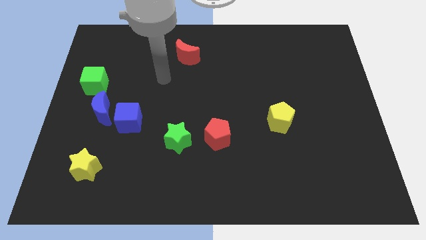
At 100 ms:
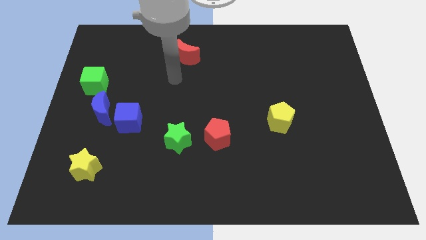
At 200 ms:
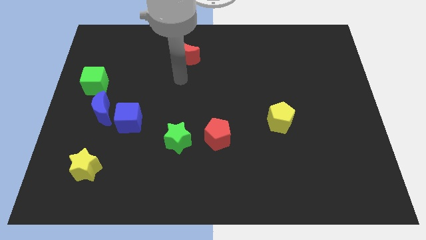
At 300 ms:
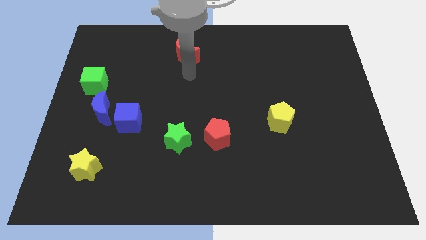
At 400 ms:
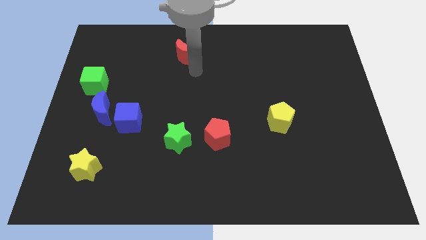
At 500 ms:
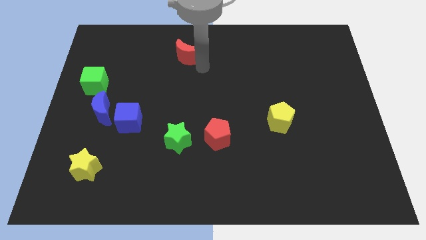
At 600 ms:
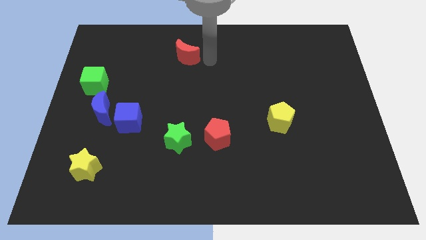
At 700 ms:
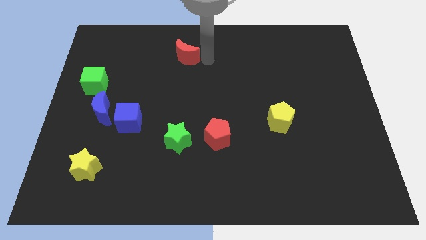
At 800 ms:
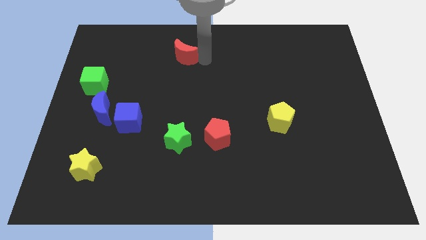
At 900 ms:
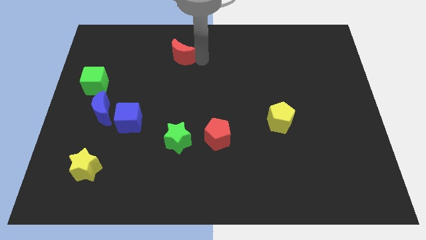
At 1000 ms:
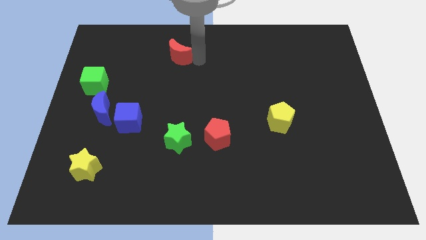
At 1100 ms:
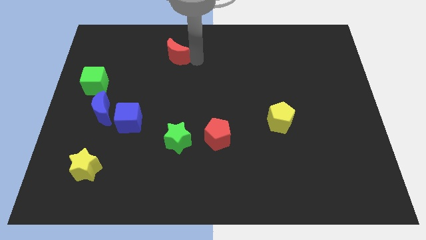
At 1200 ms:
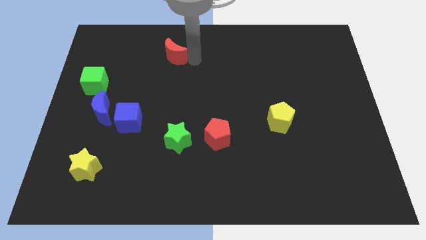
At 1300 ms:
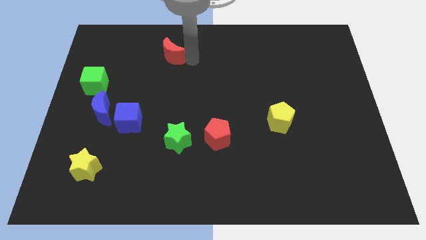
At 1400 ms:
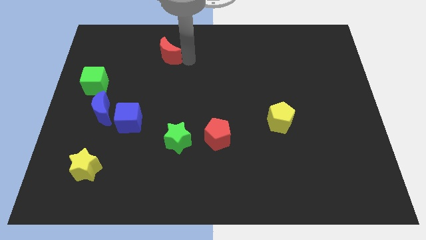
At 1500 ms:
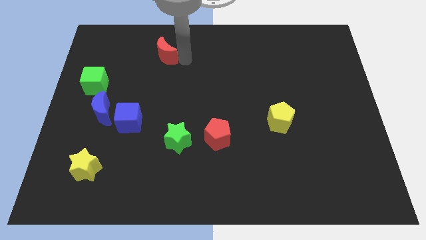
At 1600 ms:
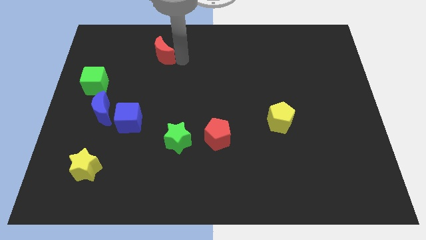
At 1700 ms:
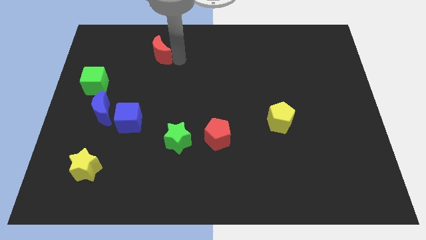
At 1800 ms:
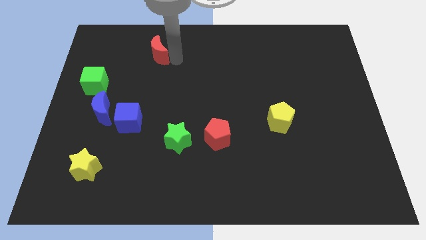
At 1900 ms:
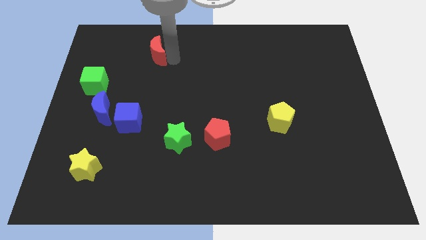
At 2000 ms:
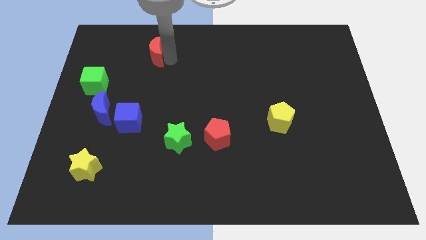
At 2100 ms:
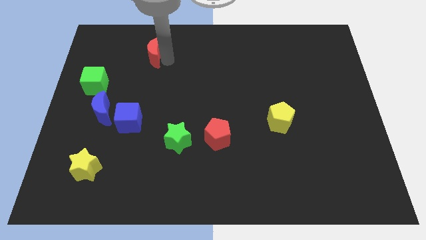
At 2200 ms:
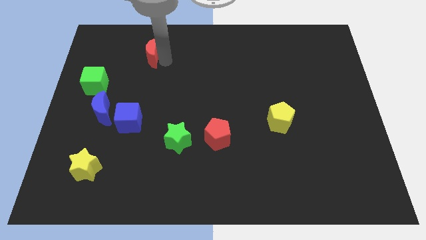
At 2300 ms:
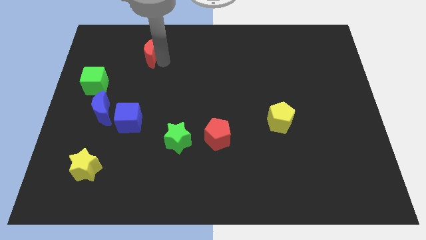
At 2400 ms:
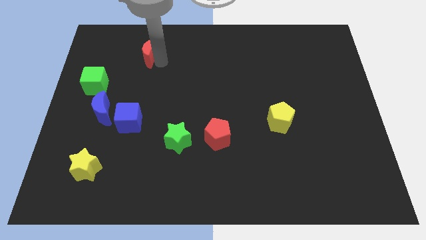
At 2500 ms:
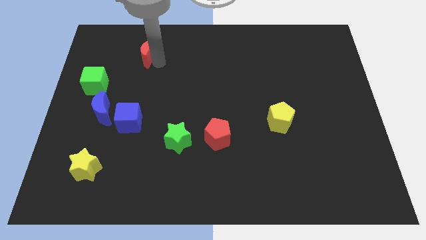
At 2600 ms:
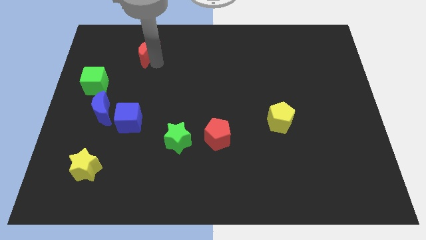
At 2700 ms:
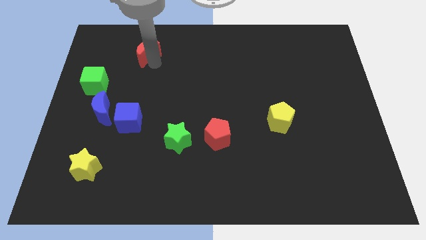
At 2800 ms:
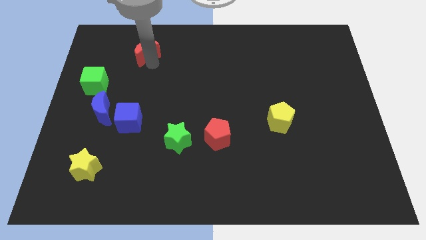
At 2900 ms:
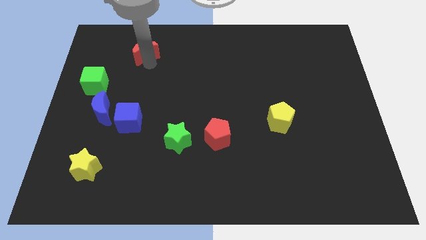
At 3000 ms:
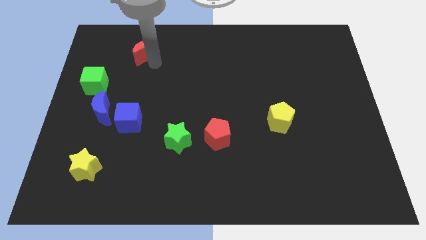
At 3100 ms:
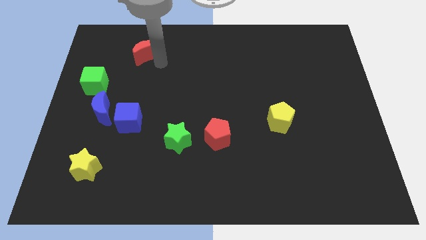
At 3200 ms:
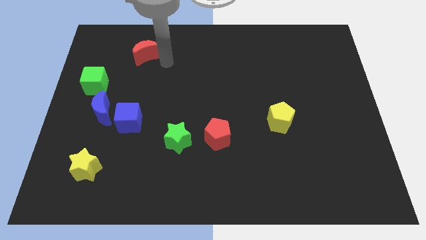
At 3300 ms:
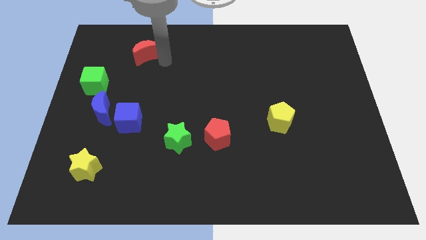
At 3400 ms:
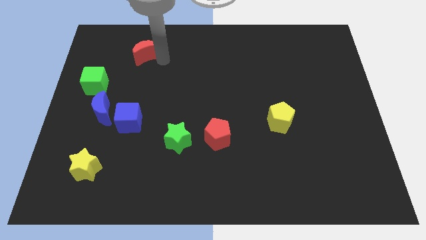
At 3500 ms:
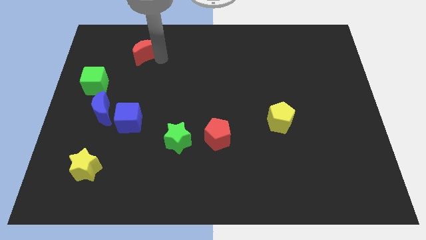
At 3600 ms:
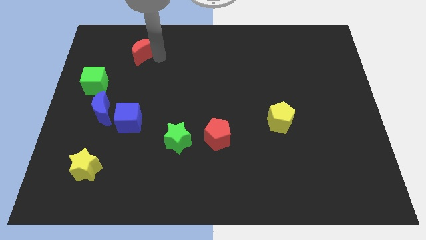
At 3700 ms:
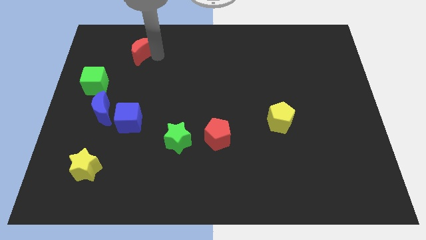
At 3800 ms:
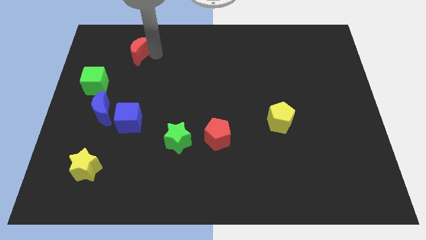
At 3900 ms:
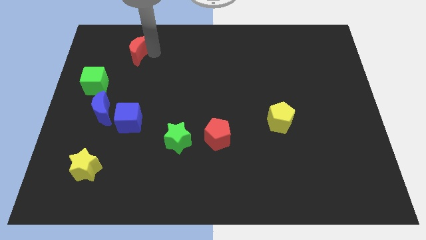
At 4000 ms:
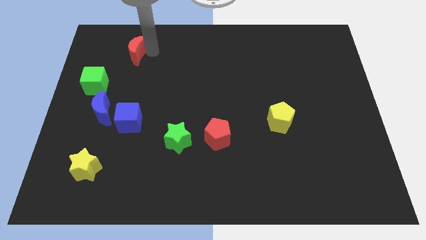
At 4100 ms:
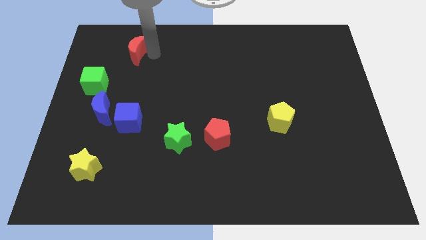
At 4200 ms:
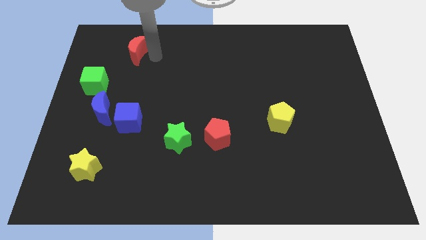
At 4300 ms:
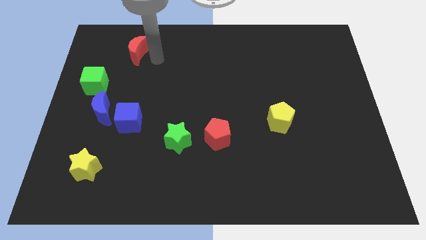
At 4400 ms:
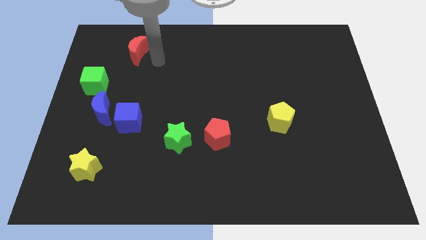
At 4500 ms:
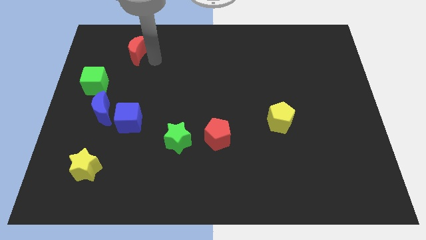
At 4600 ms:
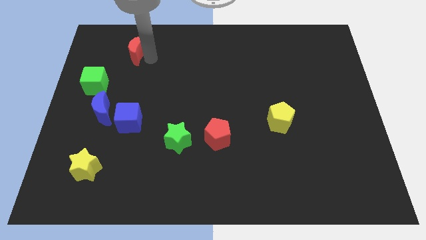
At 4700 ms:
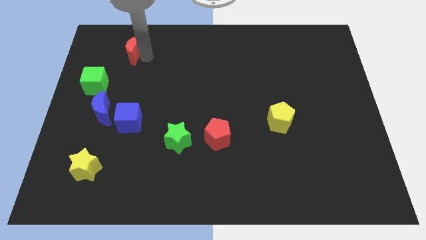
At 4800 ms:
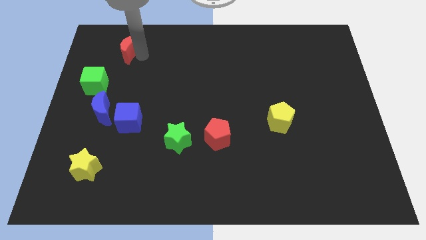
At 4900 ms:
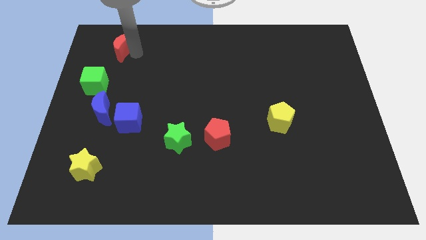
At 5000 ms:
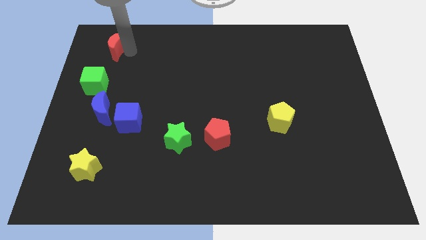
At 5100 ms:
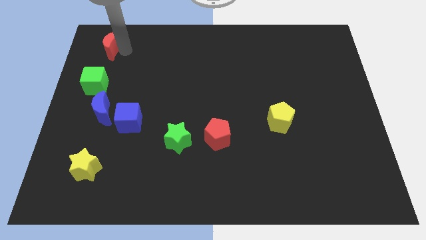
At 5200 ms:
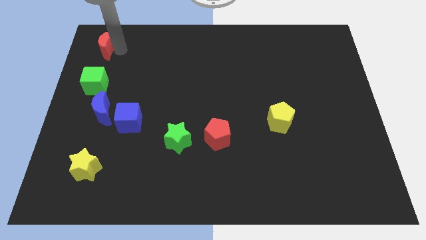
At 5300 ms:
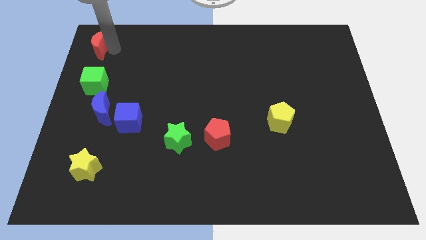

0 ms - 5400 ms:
slide the red moon to the top left corner

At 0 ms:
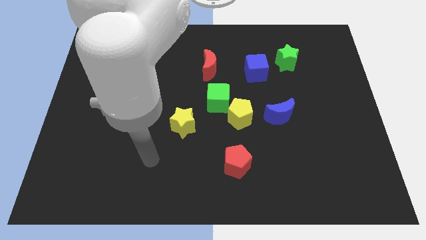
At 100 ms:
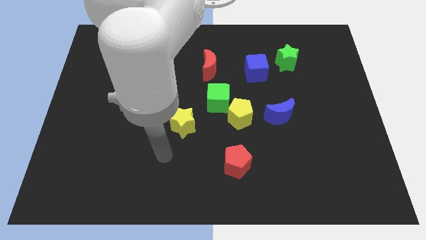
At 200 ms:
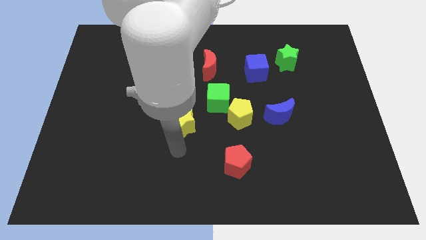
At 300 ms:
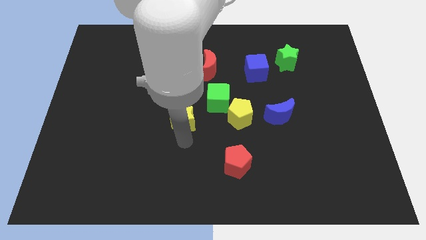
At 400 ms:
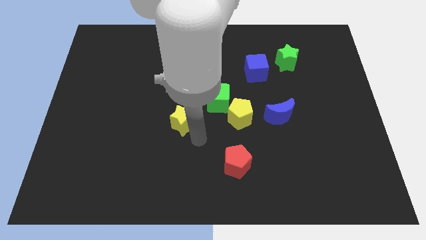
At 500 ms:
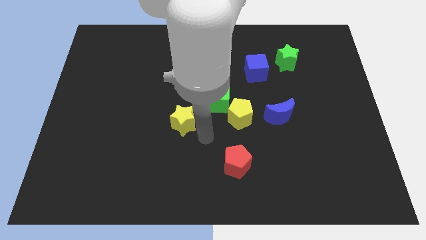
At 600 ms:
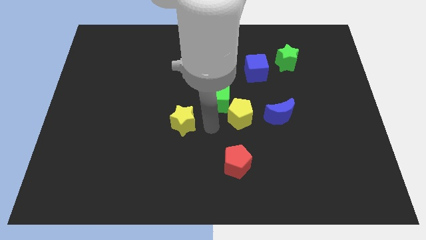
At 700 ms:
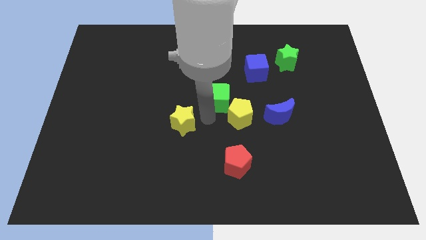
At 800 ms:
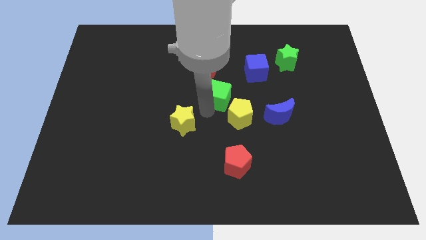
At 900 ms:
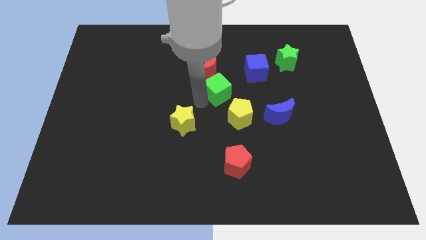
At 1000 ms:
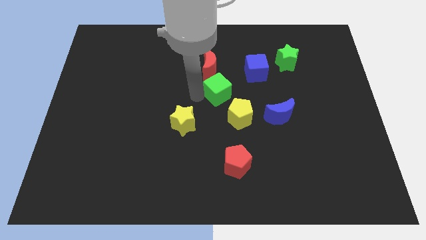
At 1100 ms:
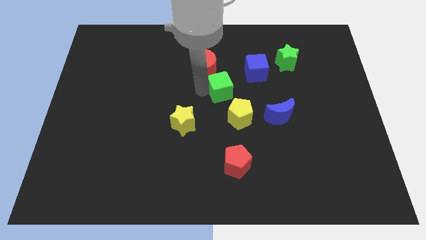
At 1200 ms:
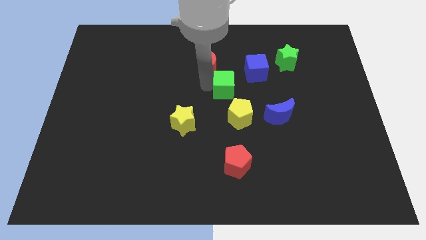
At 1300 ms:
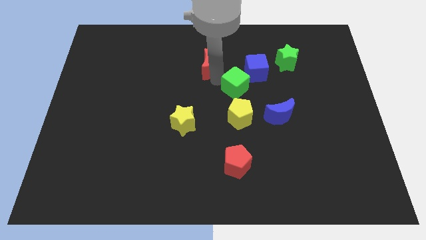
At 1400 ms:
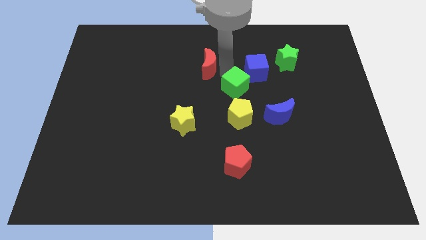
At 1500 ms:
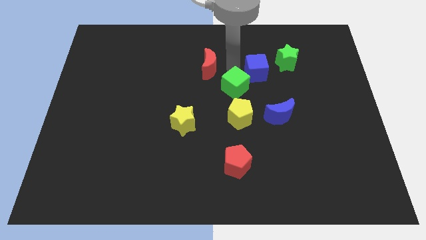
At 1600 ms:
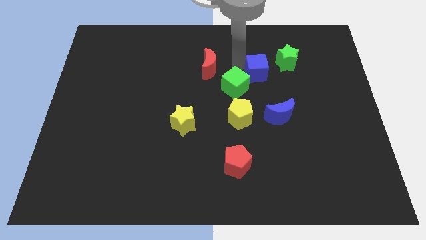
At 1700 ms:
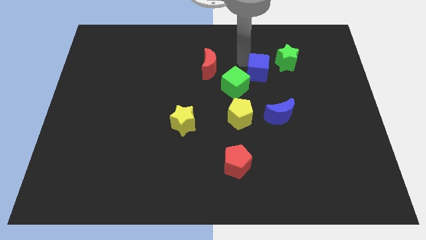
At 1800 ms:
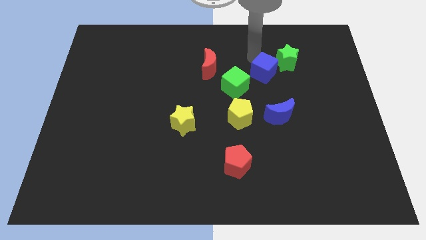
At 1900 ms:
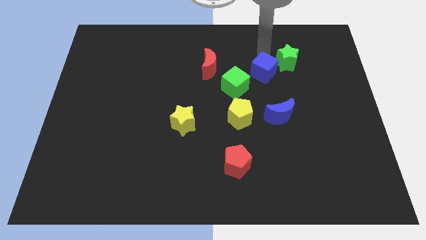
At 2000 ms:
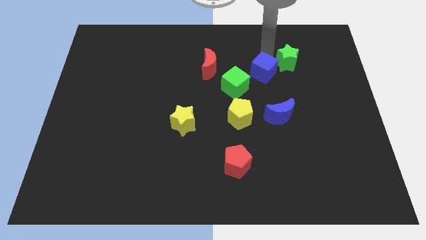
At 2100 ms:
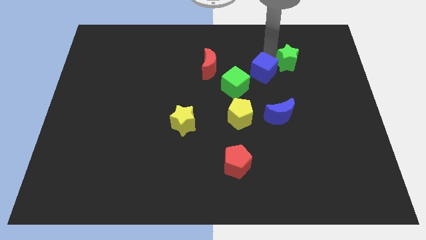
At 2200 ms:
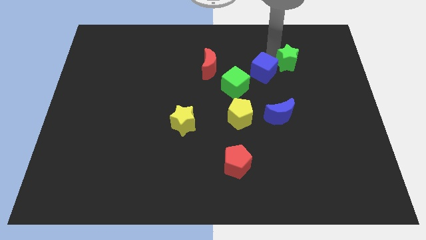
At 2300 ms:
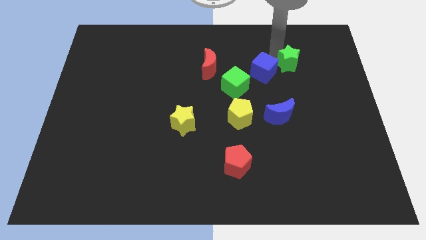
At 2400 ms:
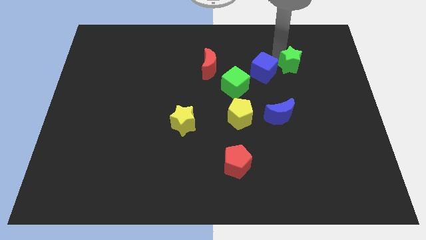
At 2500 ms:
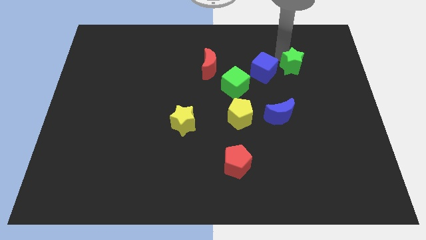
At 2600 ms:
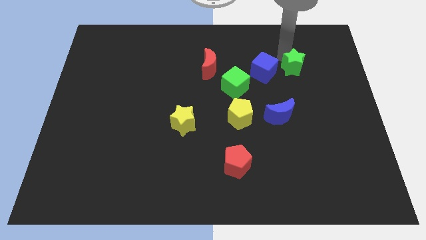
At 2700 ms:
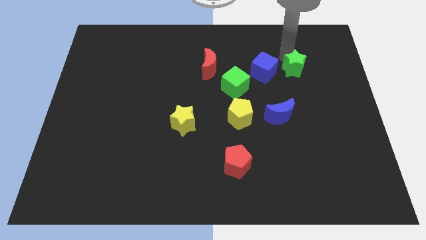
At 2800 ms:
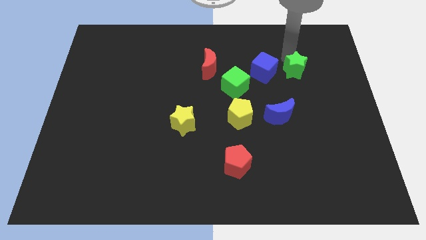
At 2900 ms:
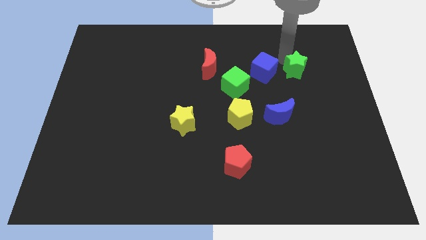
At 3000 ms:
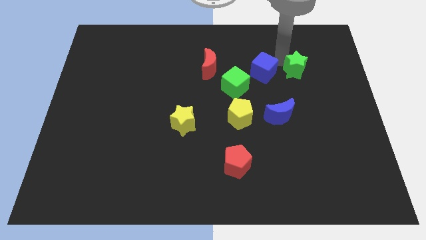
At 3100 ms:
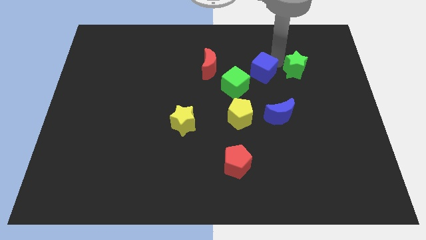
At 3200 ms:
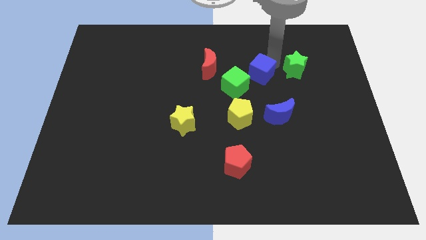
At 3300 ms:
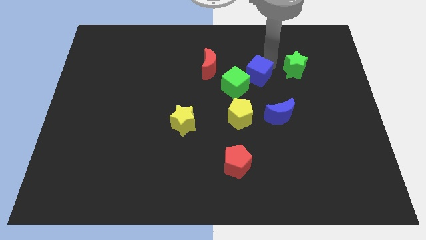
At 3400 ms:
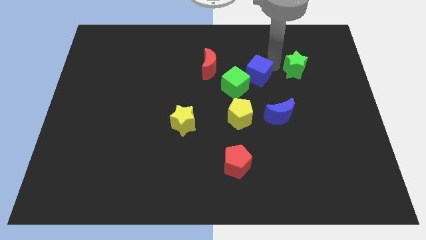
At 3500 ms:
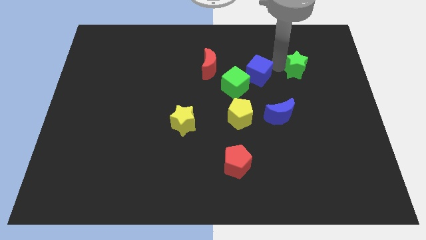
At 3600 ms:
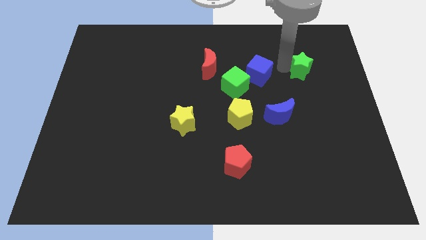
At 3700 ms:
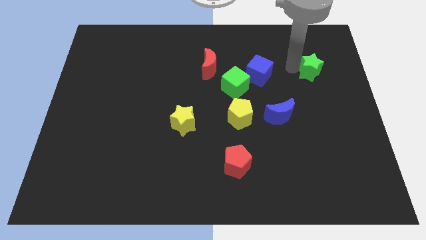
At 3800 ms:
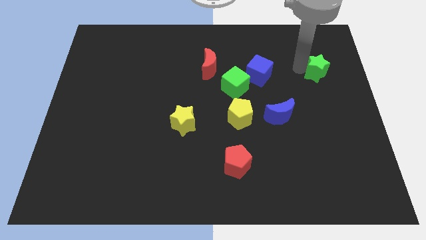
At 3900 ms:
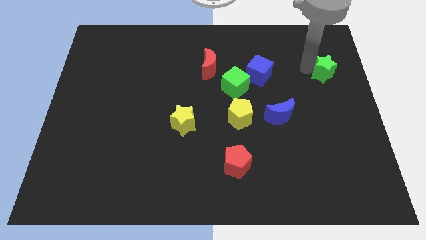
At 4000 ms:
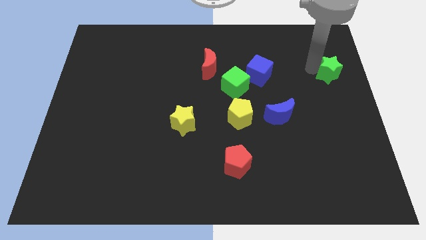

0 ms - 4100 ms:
push the green star to the center right
